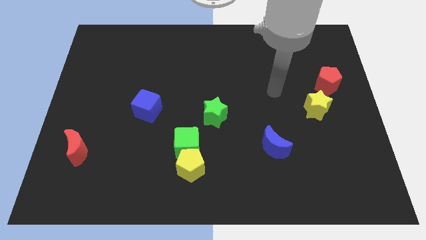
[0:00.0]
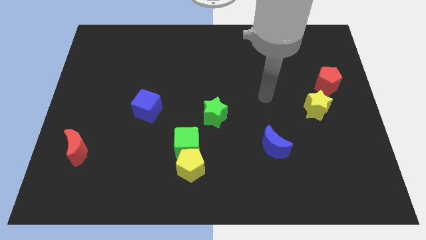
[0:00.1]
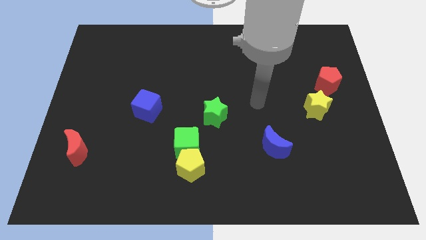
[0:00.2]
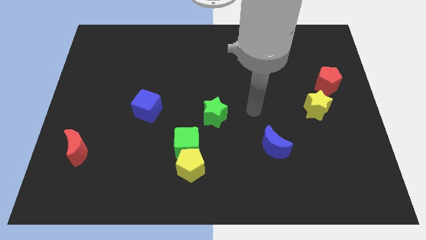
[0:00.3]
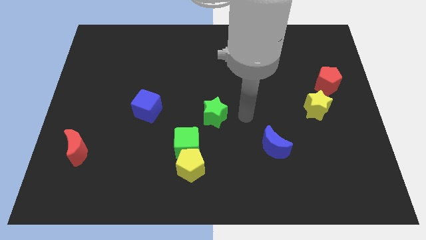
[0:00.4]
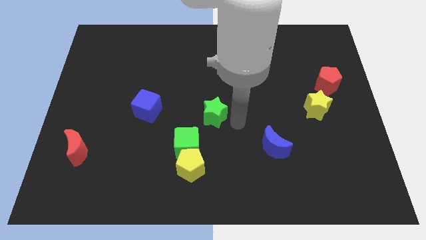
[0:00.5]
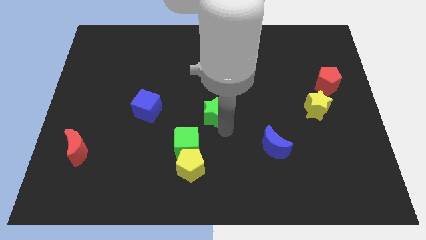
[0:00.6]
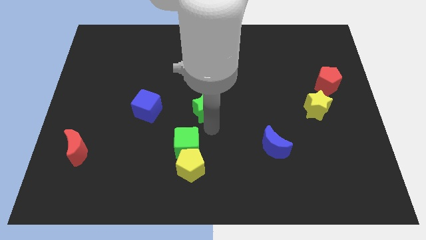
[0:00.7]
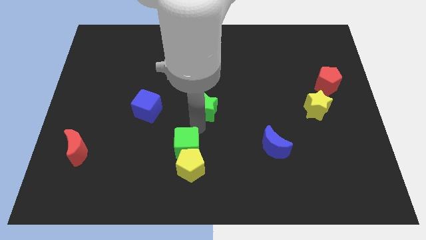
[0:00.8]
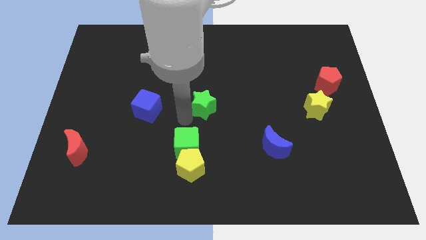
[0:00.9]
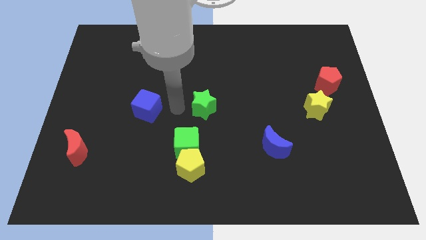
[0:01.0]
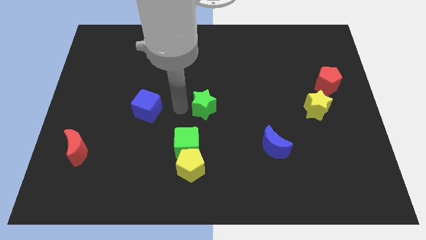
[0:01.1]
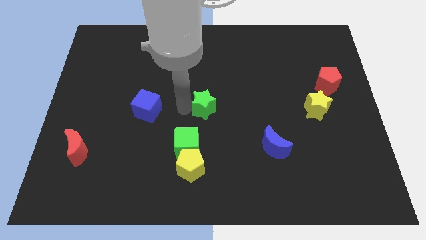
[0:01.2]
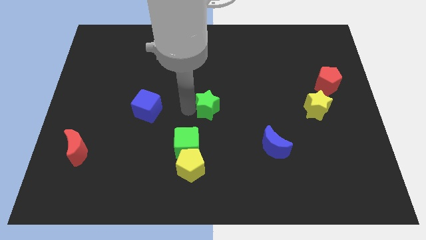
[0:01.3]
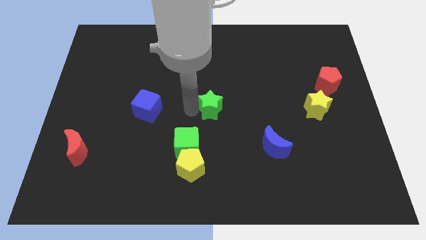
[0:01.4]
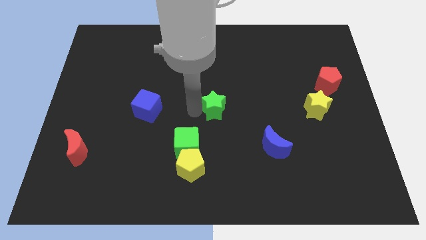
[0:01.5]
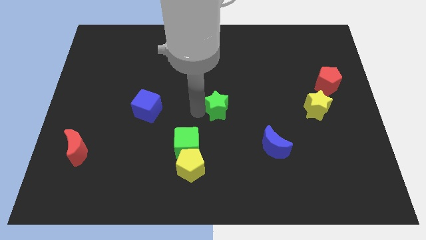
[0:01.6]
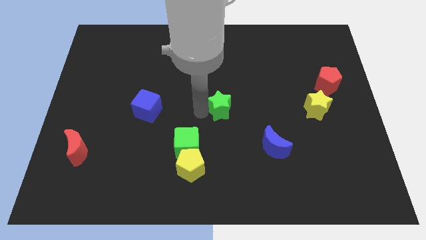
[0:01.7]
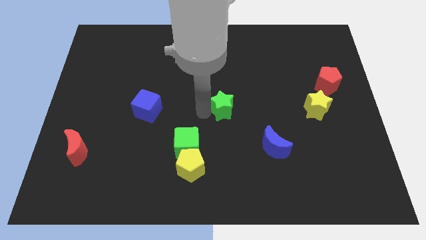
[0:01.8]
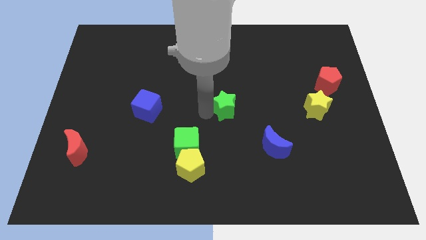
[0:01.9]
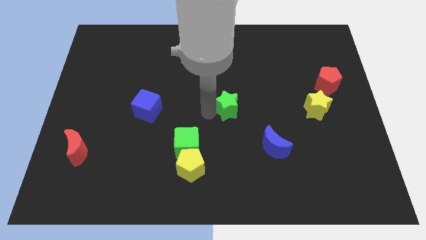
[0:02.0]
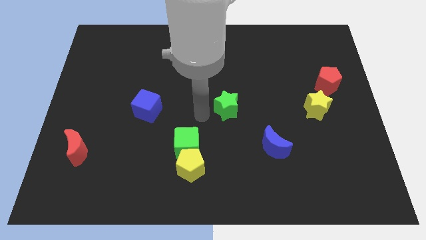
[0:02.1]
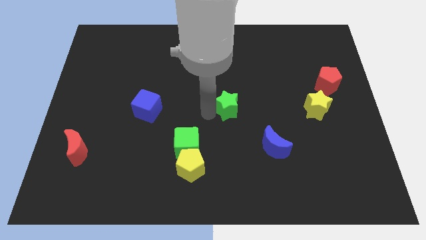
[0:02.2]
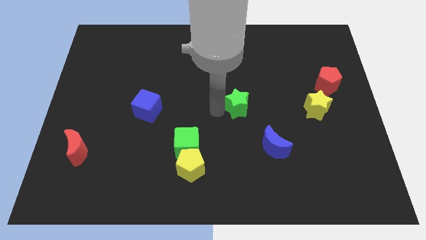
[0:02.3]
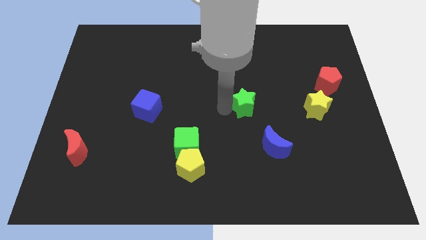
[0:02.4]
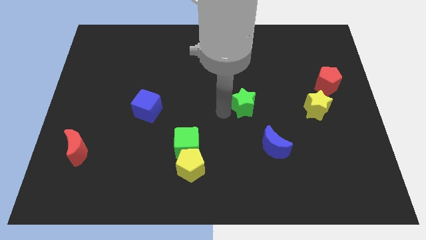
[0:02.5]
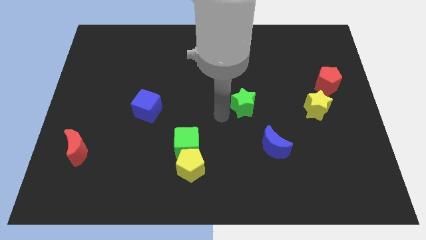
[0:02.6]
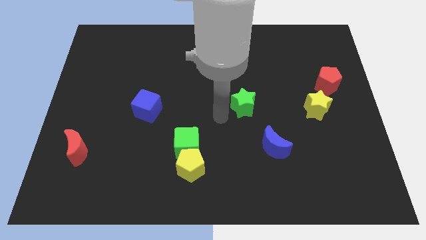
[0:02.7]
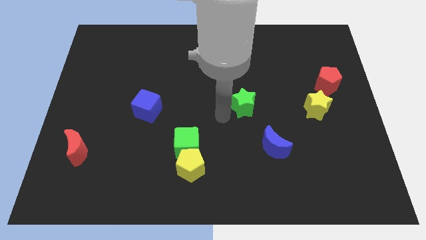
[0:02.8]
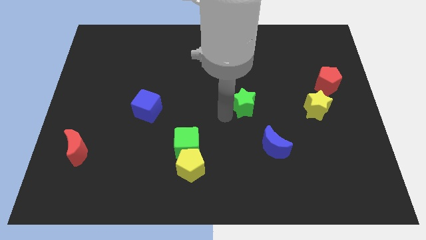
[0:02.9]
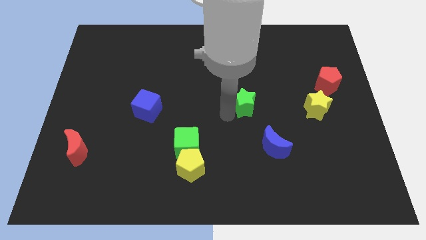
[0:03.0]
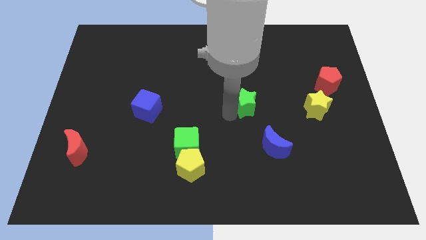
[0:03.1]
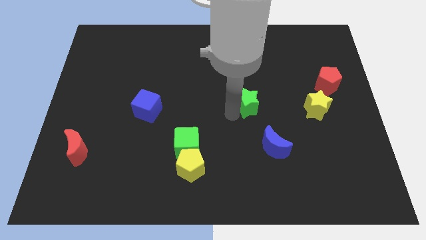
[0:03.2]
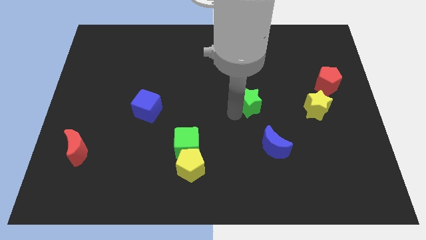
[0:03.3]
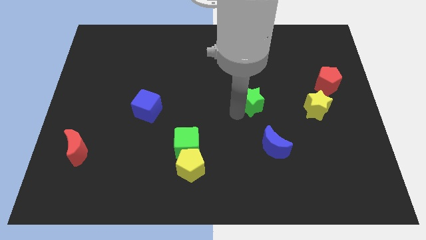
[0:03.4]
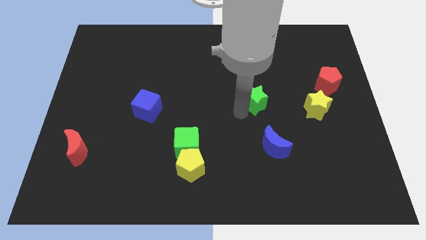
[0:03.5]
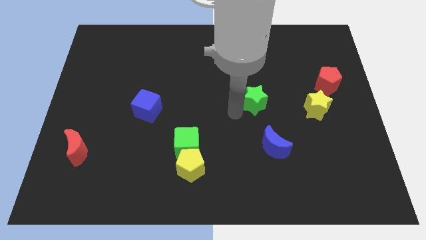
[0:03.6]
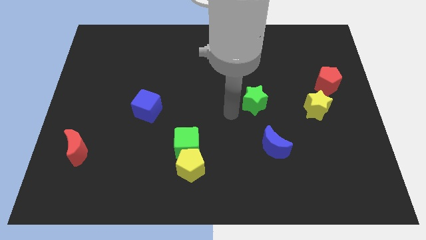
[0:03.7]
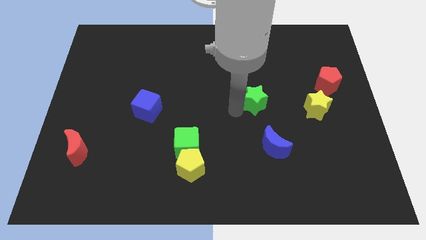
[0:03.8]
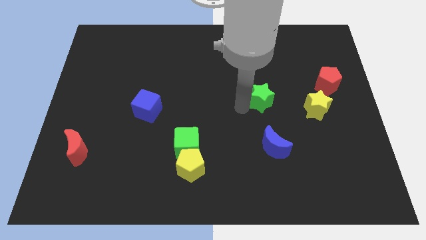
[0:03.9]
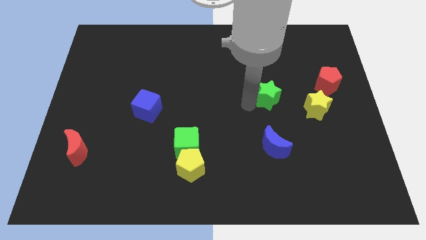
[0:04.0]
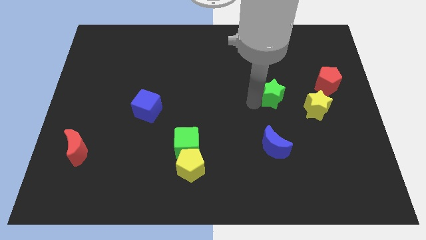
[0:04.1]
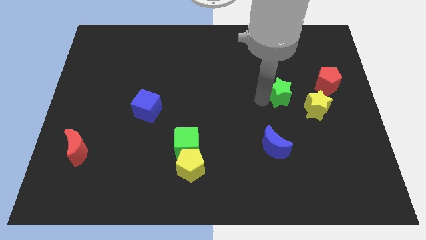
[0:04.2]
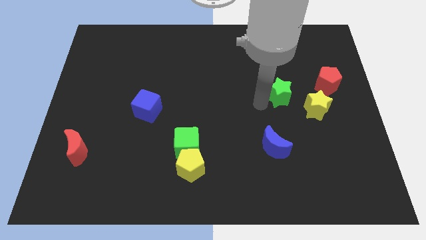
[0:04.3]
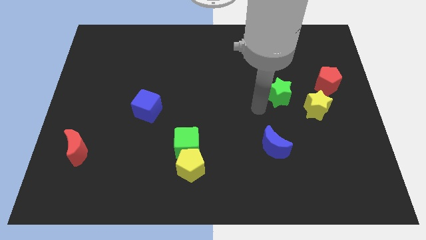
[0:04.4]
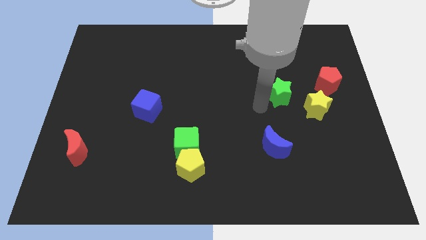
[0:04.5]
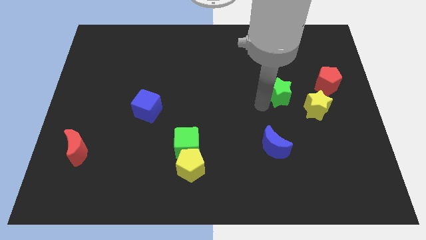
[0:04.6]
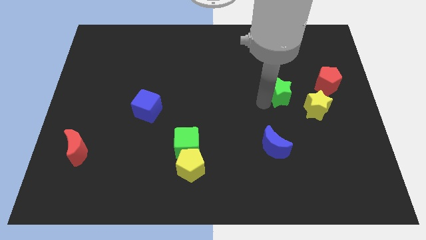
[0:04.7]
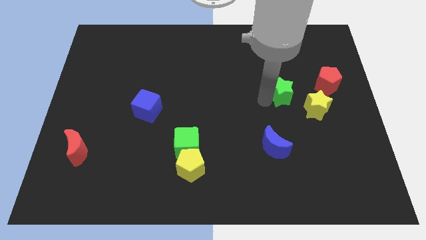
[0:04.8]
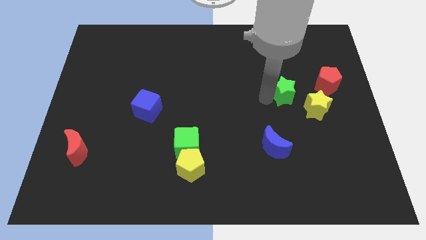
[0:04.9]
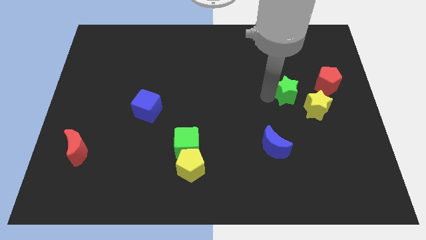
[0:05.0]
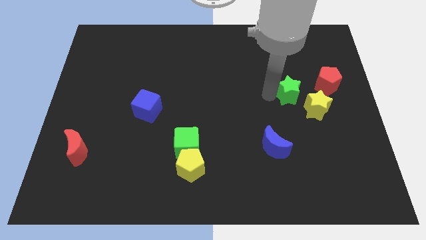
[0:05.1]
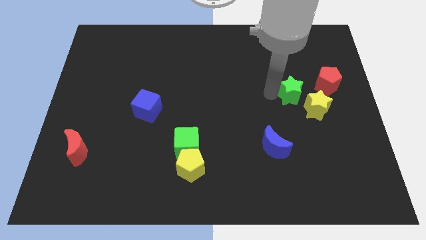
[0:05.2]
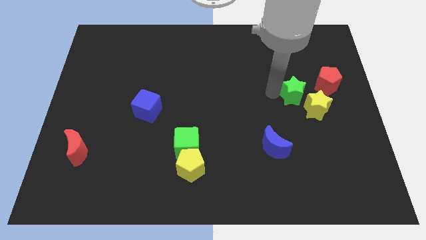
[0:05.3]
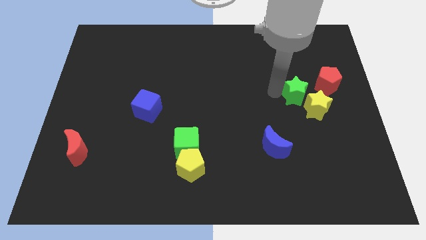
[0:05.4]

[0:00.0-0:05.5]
put the green star above the yellow star

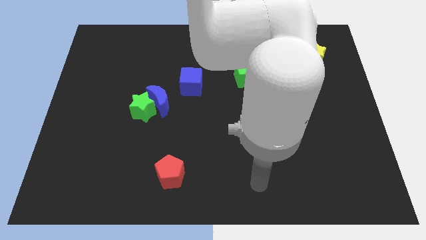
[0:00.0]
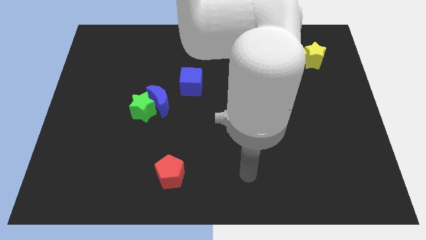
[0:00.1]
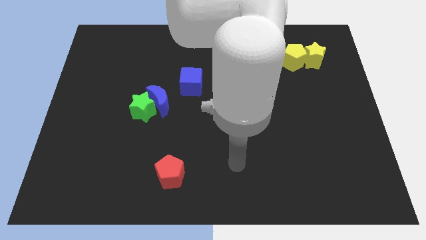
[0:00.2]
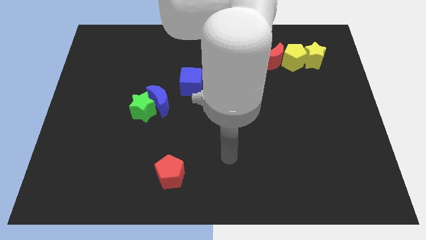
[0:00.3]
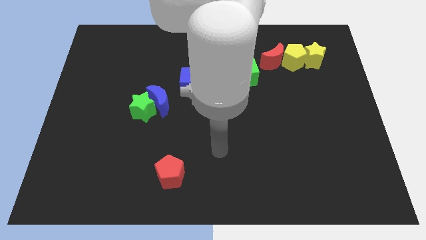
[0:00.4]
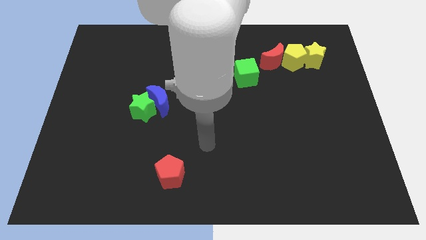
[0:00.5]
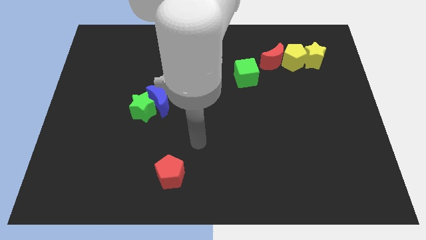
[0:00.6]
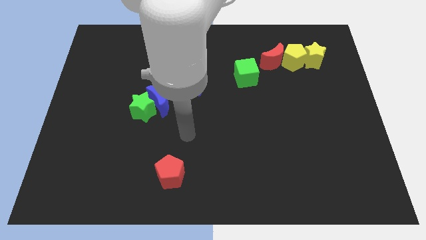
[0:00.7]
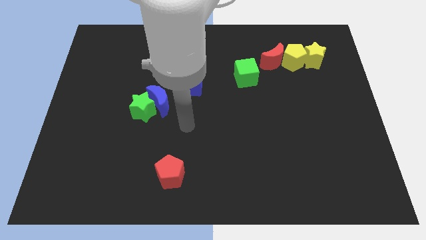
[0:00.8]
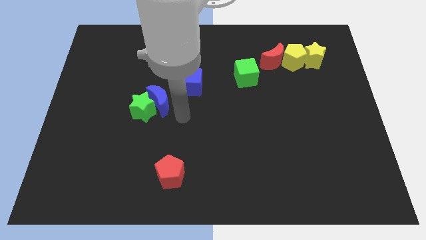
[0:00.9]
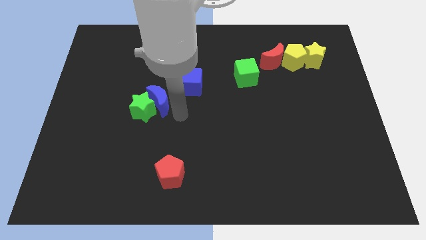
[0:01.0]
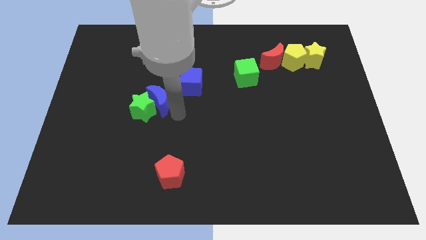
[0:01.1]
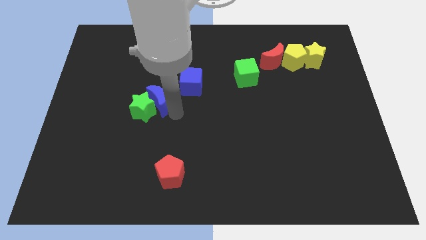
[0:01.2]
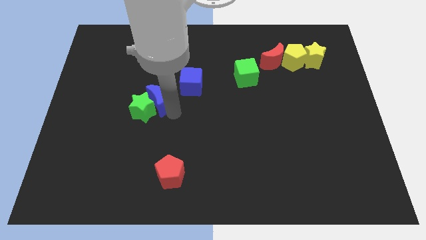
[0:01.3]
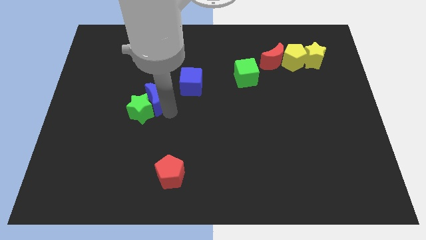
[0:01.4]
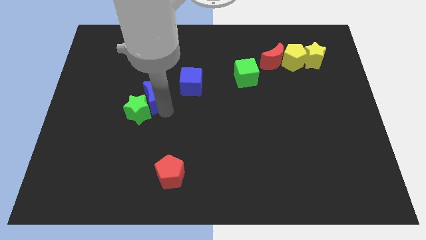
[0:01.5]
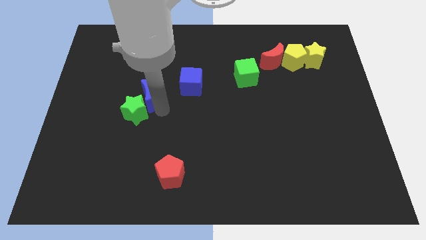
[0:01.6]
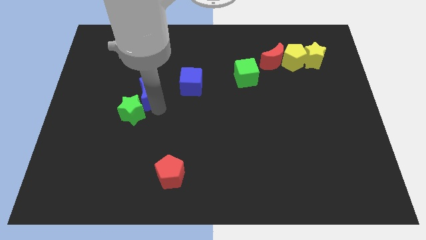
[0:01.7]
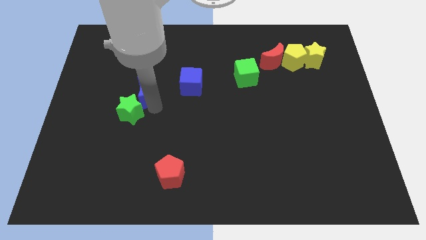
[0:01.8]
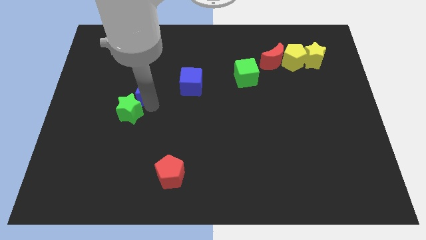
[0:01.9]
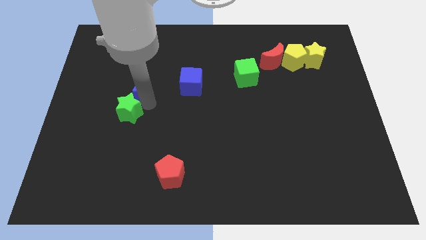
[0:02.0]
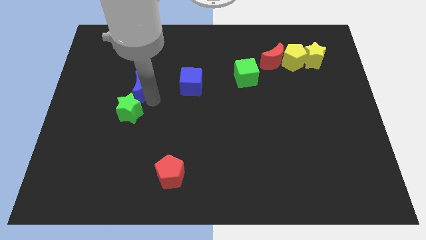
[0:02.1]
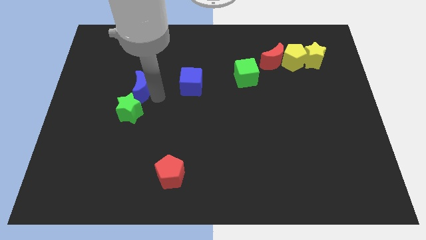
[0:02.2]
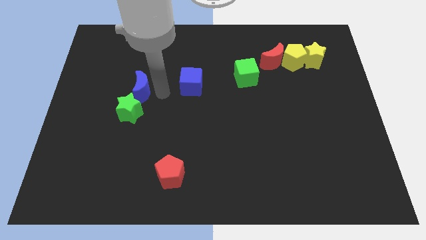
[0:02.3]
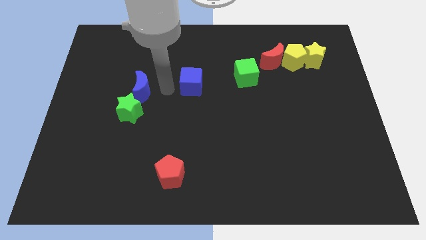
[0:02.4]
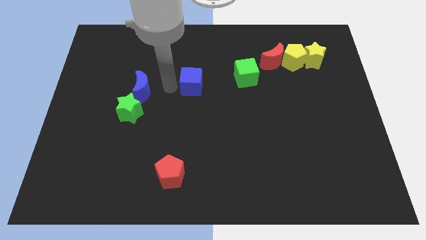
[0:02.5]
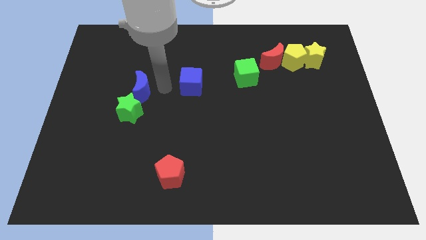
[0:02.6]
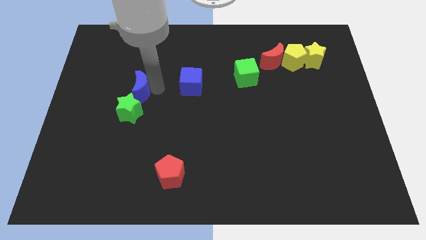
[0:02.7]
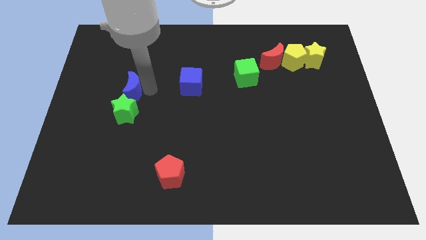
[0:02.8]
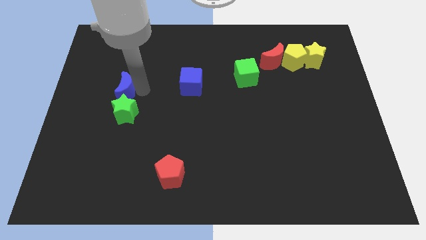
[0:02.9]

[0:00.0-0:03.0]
put the blue moon to the top left of the green star
